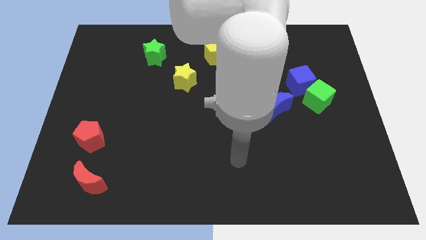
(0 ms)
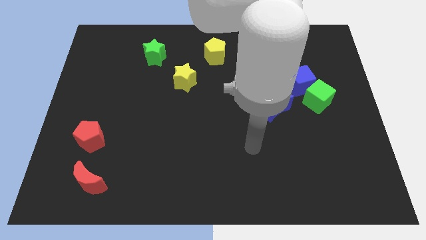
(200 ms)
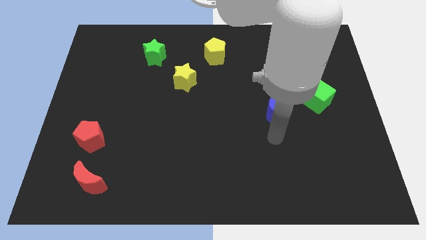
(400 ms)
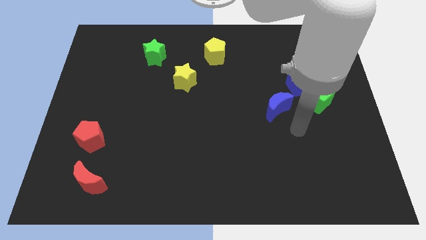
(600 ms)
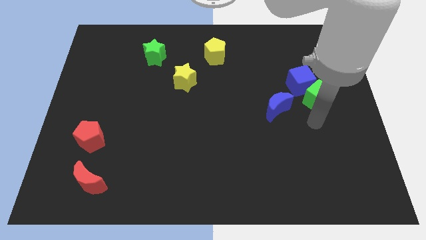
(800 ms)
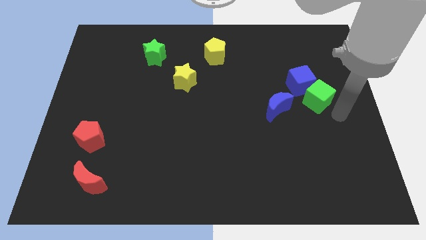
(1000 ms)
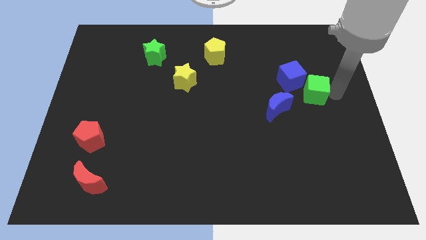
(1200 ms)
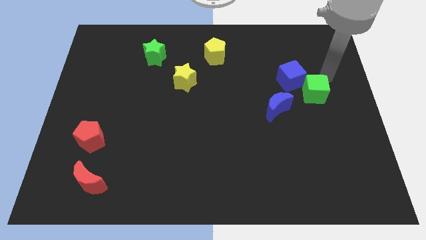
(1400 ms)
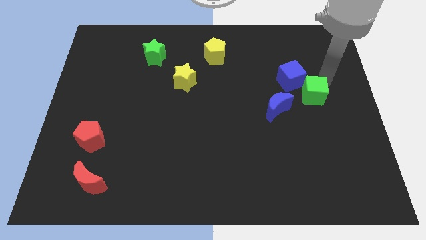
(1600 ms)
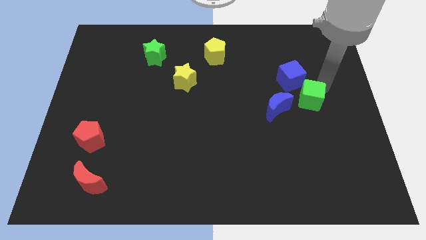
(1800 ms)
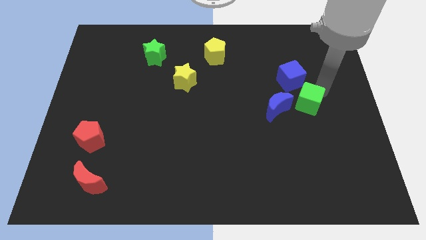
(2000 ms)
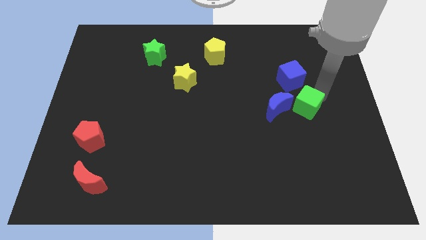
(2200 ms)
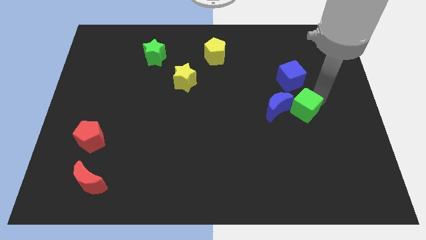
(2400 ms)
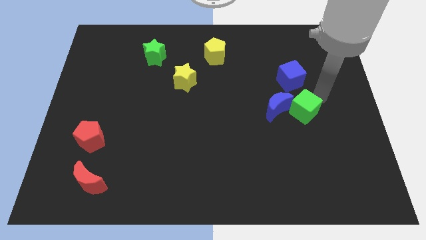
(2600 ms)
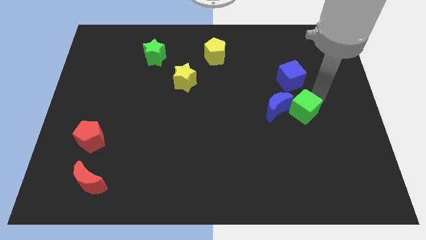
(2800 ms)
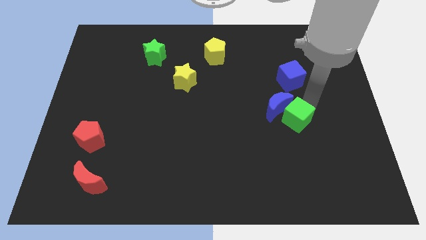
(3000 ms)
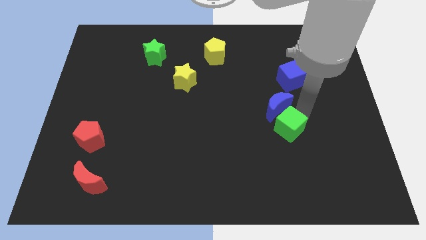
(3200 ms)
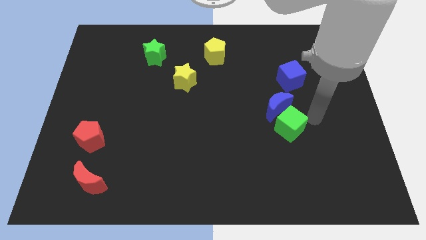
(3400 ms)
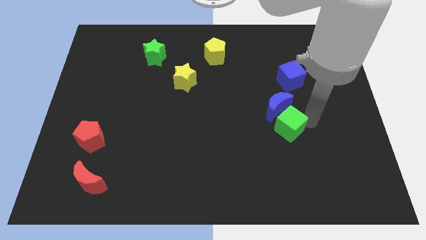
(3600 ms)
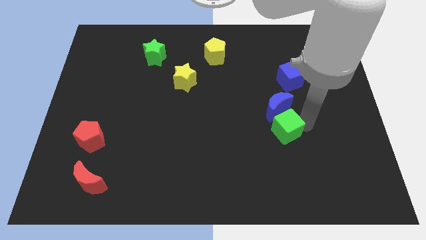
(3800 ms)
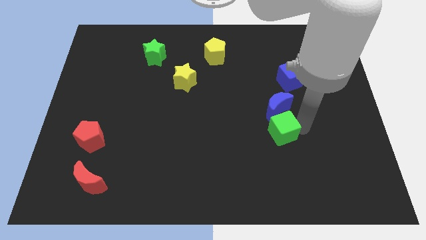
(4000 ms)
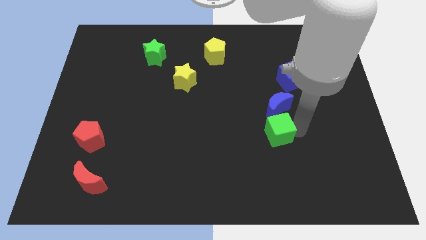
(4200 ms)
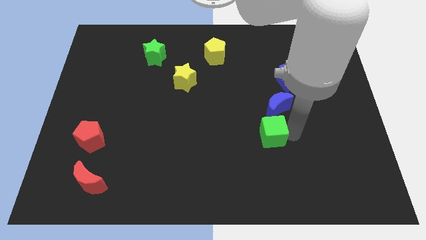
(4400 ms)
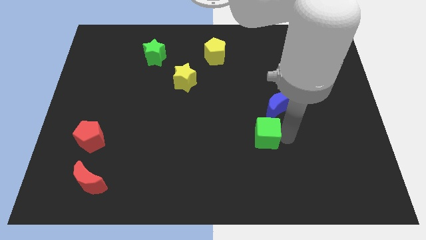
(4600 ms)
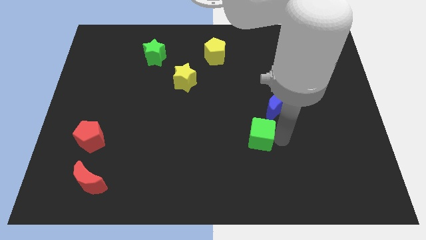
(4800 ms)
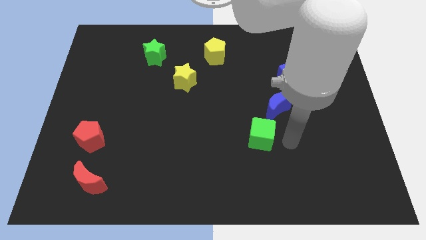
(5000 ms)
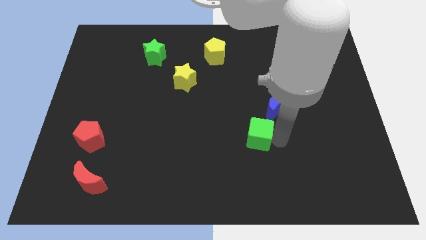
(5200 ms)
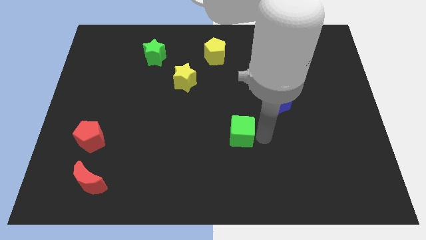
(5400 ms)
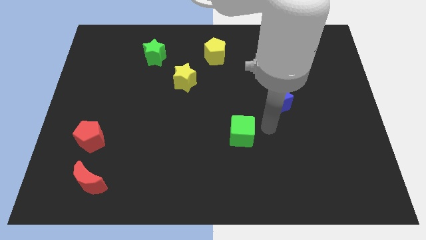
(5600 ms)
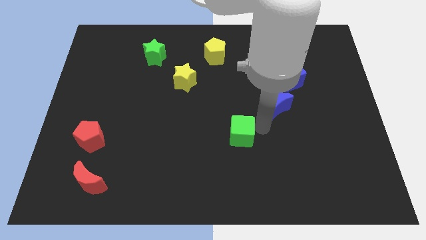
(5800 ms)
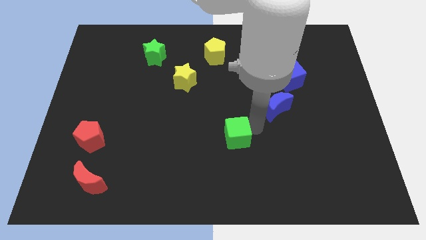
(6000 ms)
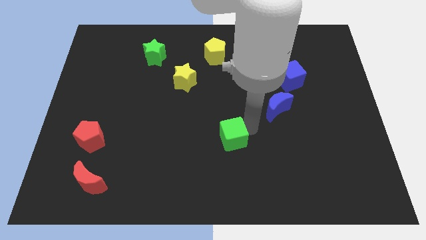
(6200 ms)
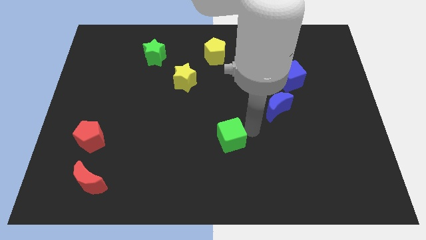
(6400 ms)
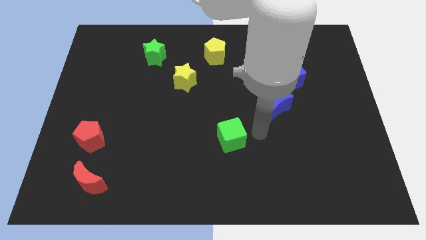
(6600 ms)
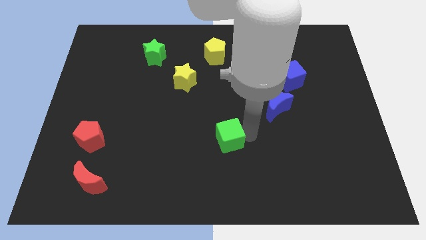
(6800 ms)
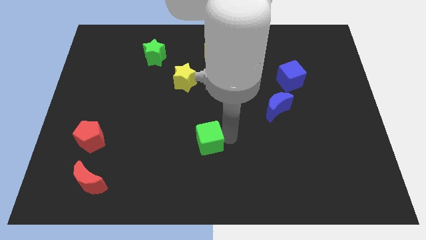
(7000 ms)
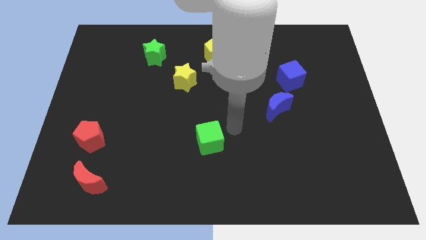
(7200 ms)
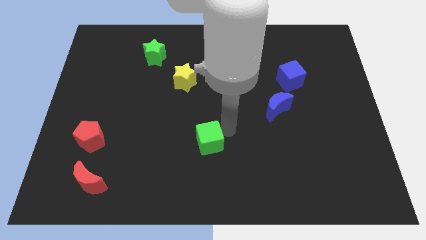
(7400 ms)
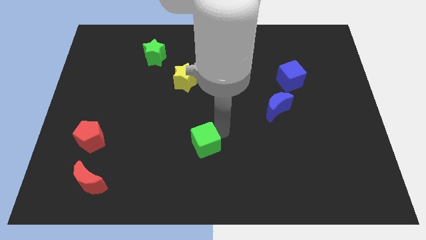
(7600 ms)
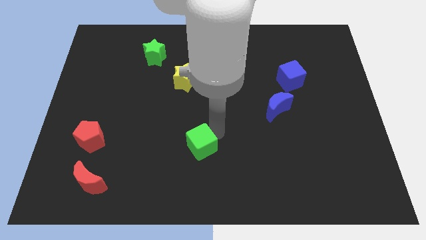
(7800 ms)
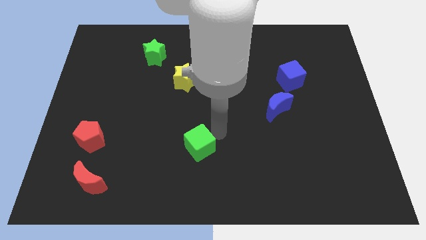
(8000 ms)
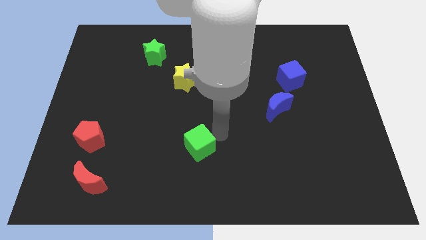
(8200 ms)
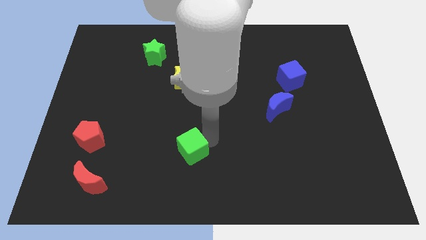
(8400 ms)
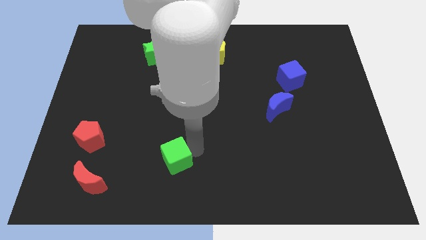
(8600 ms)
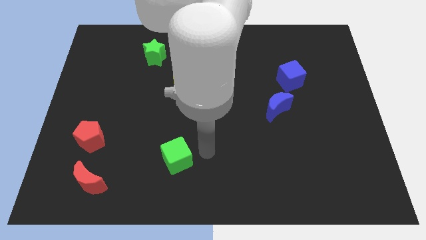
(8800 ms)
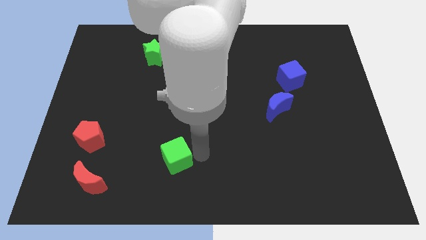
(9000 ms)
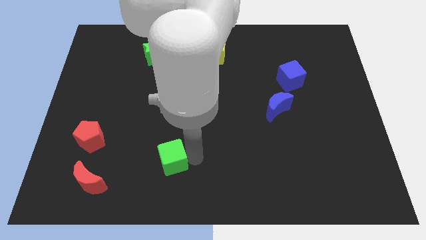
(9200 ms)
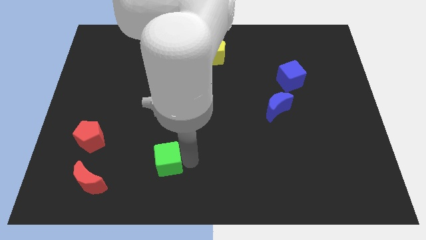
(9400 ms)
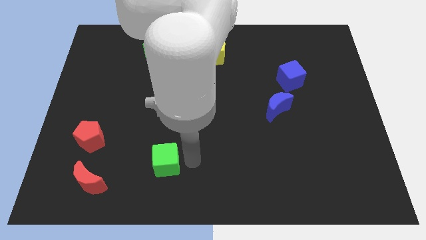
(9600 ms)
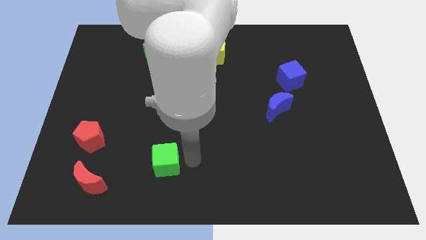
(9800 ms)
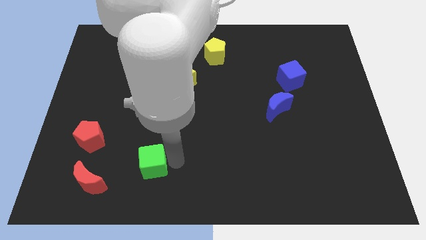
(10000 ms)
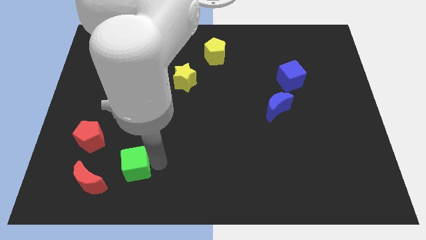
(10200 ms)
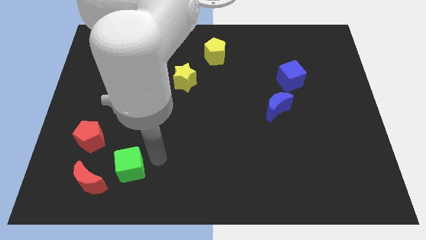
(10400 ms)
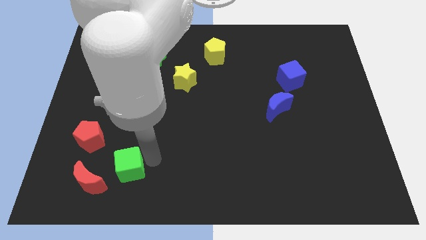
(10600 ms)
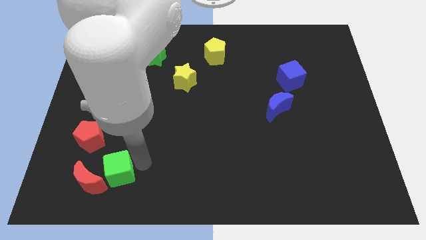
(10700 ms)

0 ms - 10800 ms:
move the green cube to the red moon

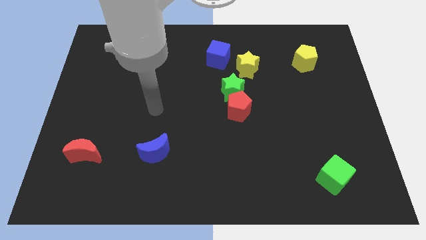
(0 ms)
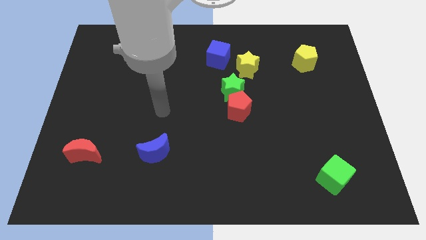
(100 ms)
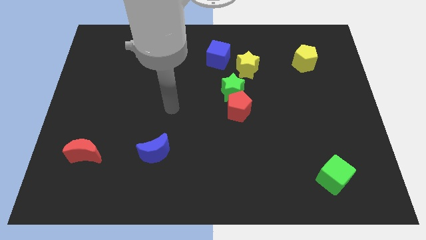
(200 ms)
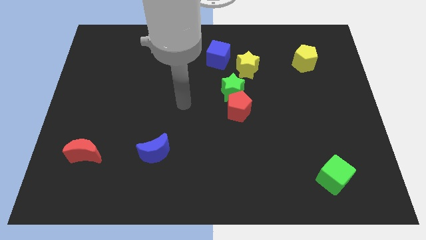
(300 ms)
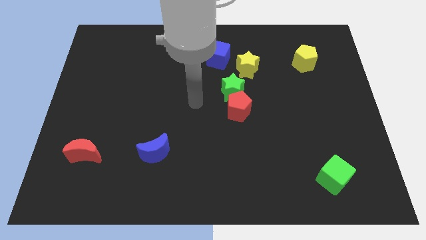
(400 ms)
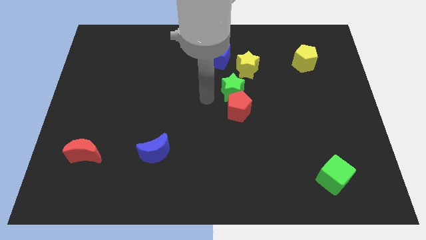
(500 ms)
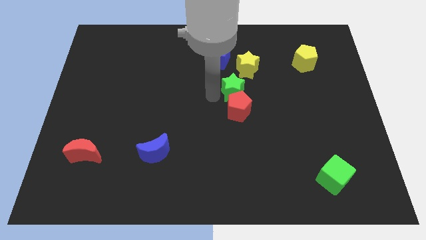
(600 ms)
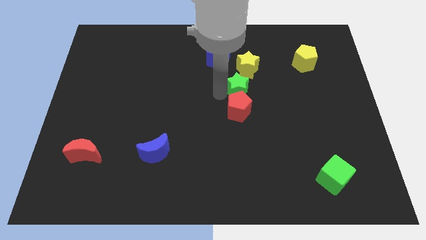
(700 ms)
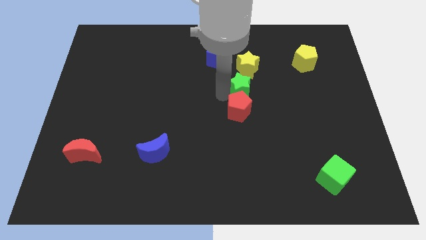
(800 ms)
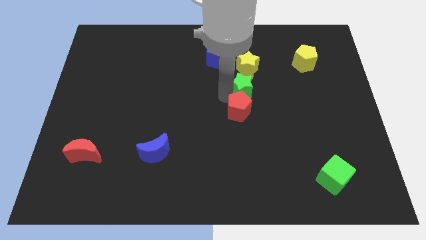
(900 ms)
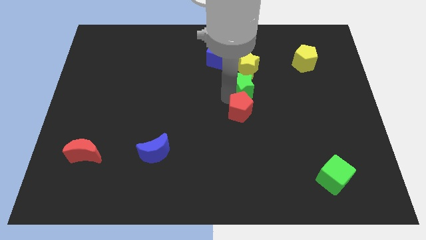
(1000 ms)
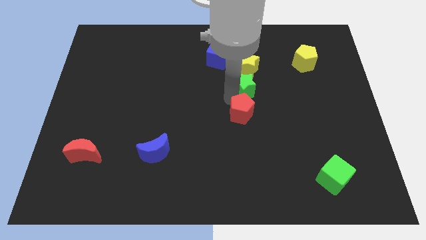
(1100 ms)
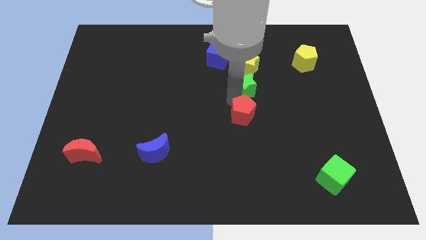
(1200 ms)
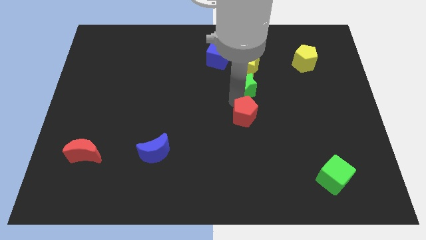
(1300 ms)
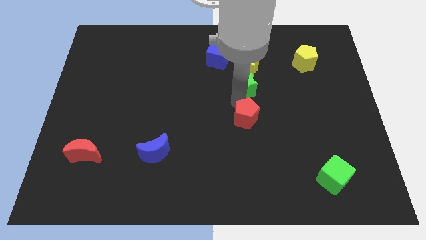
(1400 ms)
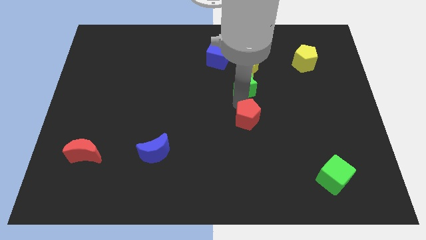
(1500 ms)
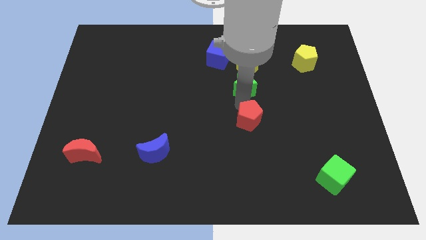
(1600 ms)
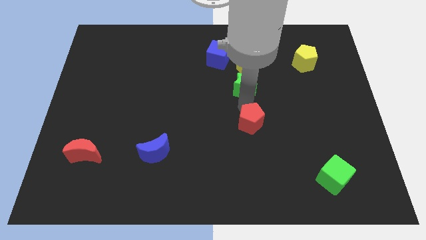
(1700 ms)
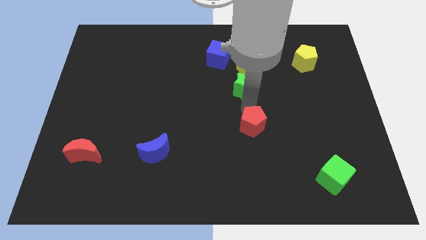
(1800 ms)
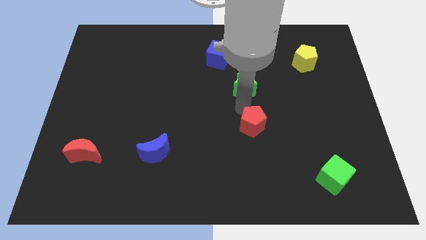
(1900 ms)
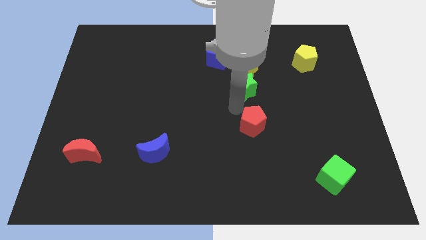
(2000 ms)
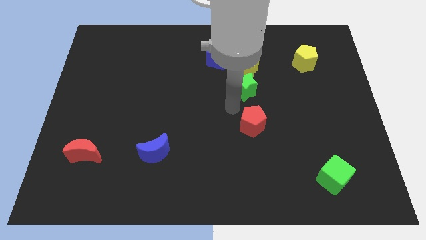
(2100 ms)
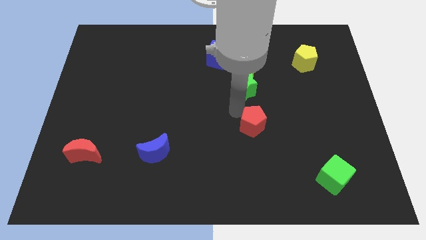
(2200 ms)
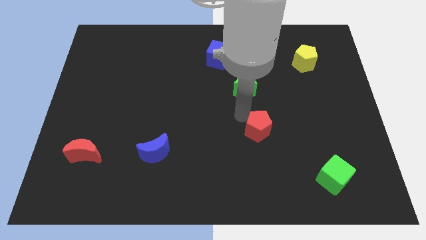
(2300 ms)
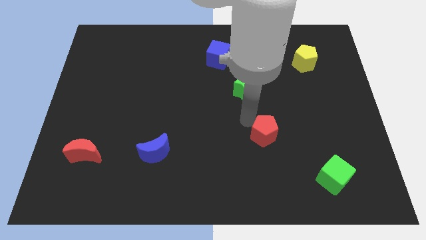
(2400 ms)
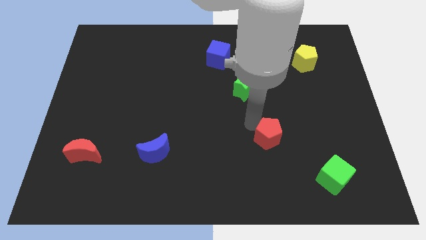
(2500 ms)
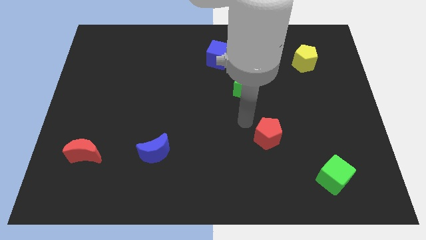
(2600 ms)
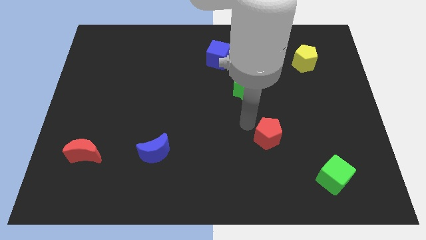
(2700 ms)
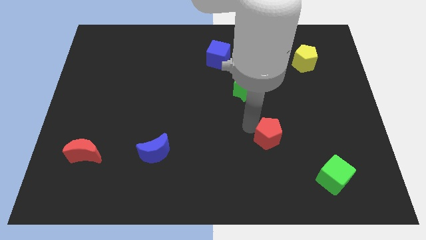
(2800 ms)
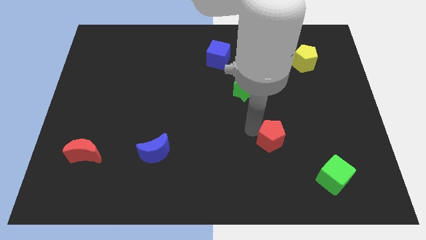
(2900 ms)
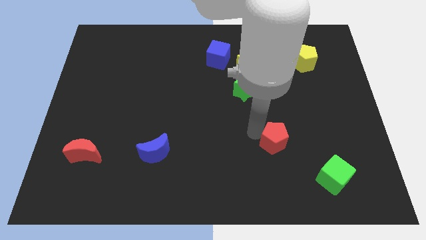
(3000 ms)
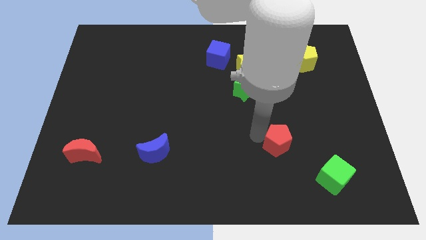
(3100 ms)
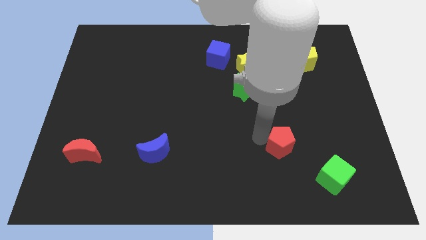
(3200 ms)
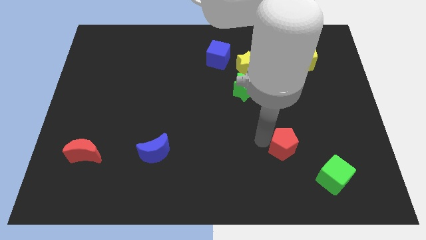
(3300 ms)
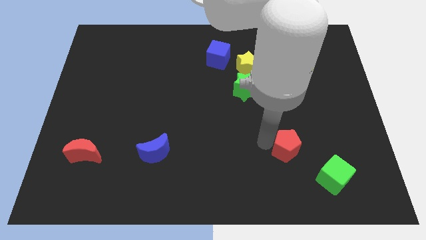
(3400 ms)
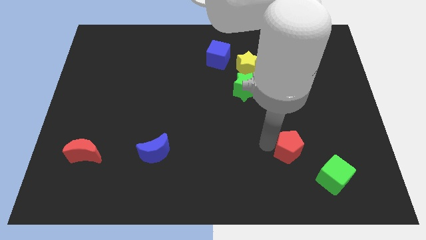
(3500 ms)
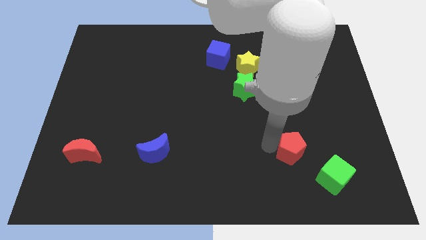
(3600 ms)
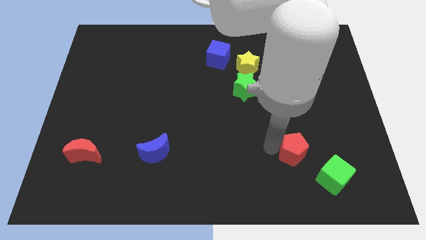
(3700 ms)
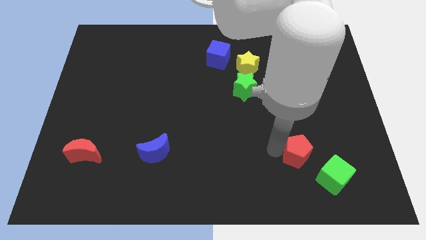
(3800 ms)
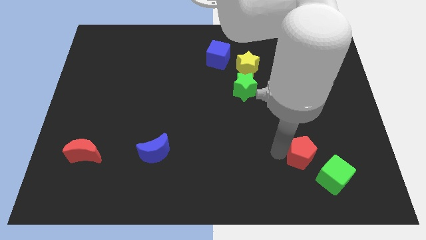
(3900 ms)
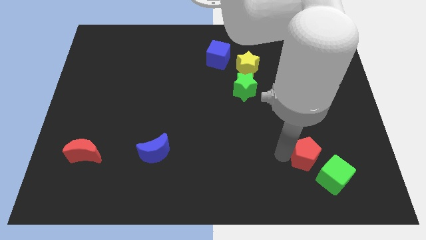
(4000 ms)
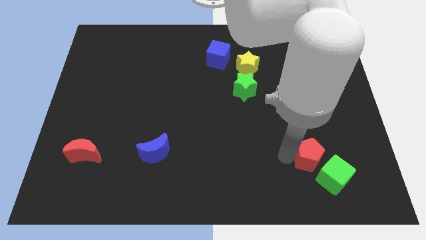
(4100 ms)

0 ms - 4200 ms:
push the red pentagon close to the green cube
